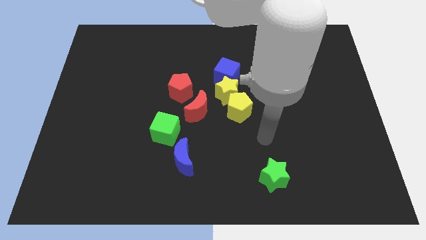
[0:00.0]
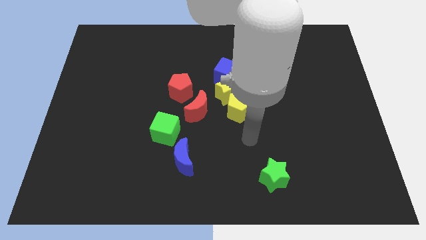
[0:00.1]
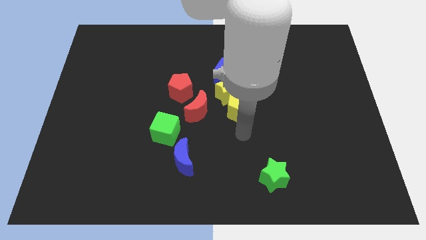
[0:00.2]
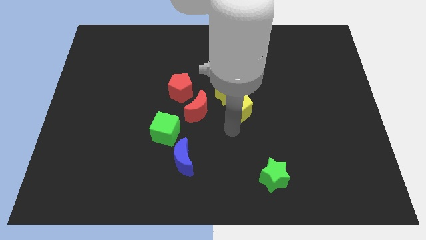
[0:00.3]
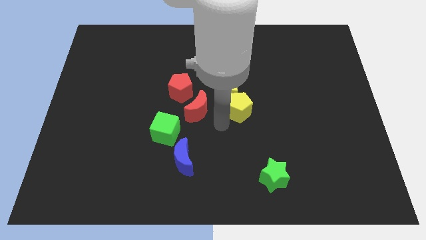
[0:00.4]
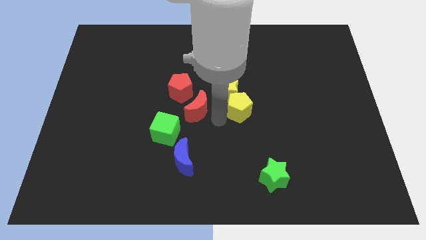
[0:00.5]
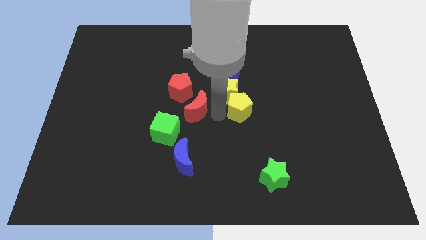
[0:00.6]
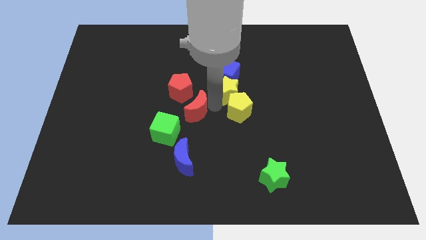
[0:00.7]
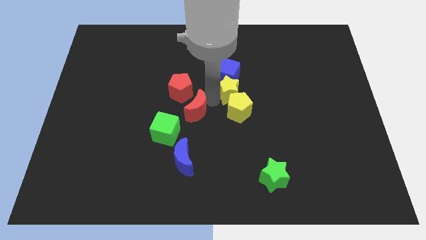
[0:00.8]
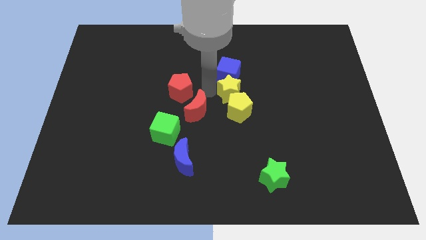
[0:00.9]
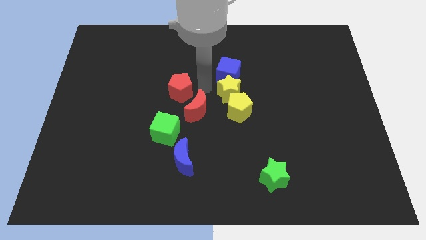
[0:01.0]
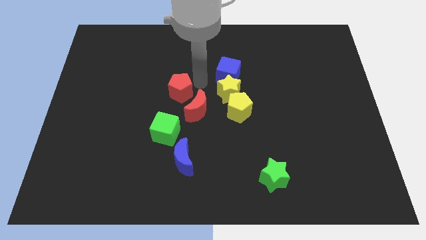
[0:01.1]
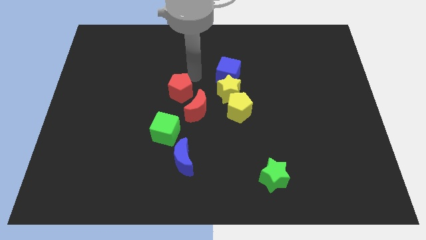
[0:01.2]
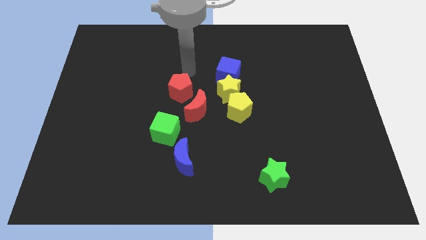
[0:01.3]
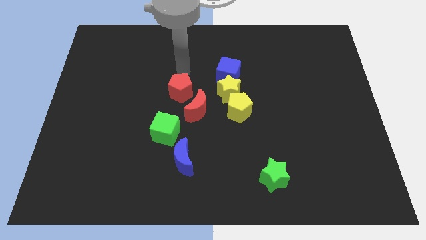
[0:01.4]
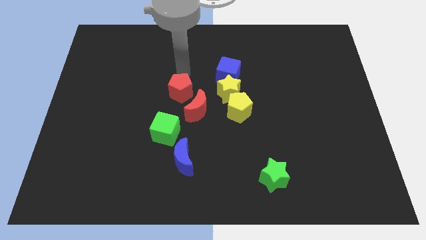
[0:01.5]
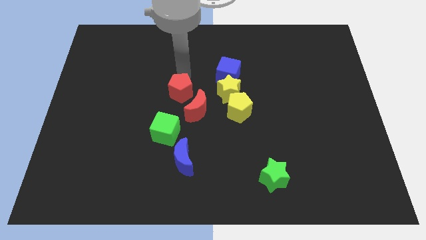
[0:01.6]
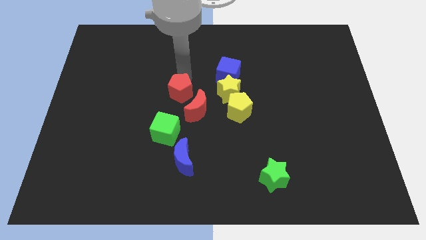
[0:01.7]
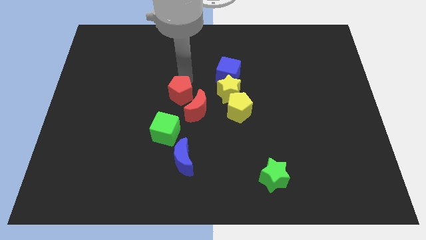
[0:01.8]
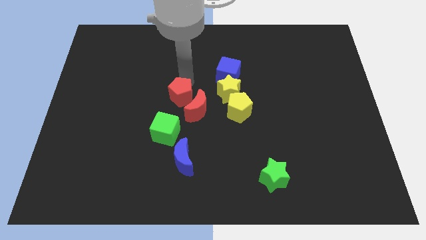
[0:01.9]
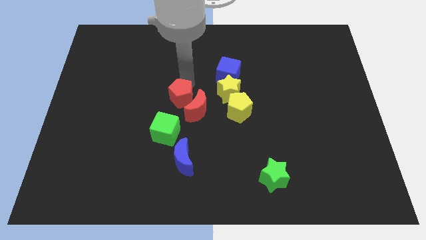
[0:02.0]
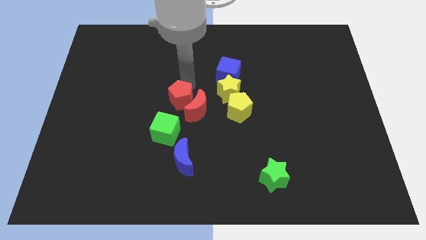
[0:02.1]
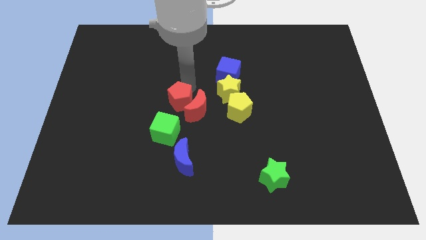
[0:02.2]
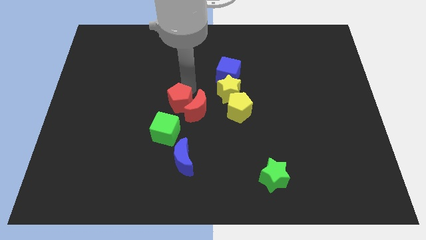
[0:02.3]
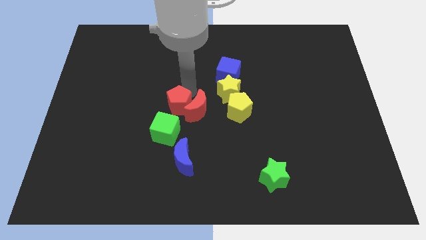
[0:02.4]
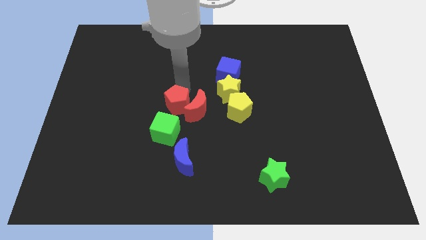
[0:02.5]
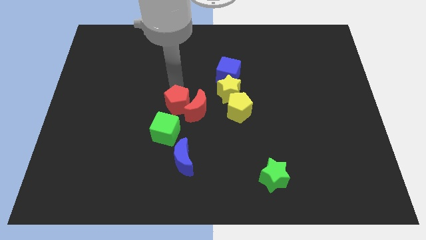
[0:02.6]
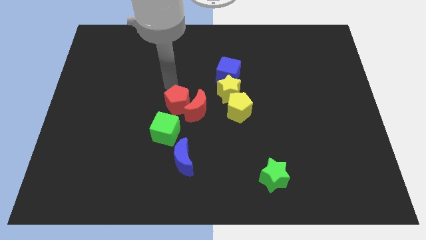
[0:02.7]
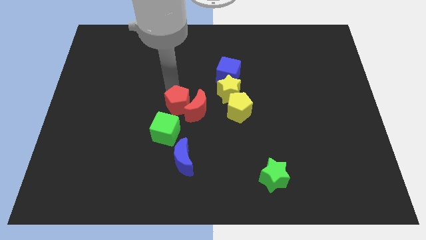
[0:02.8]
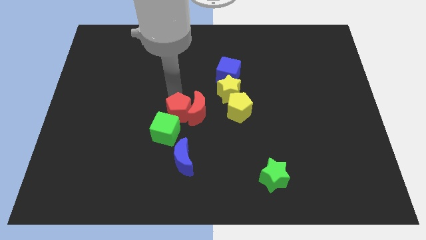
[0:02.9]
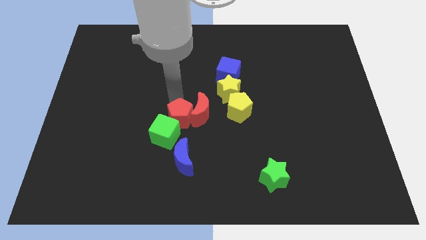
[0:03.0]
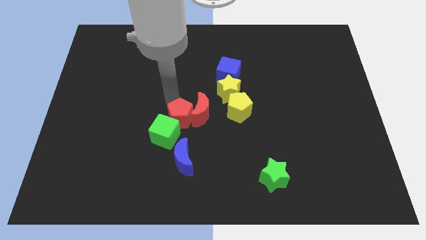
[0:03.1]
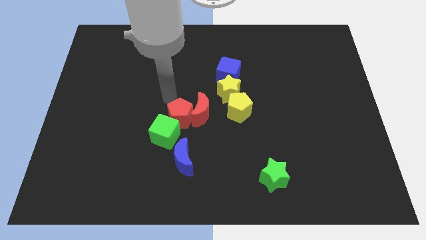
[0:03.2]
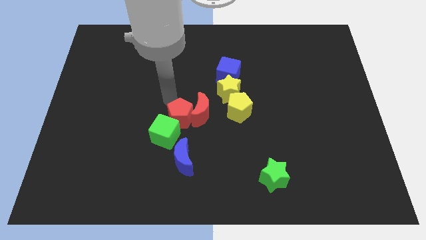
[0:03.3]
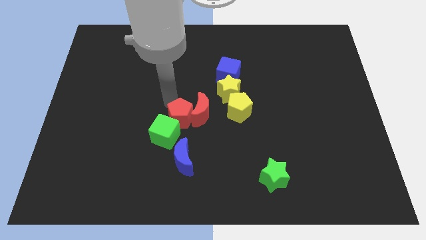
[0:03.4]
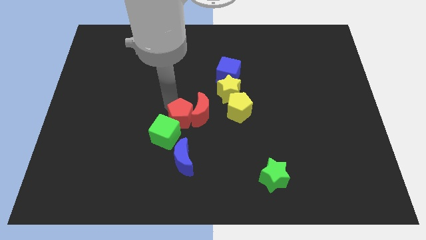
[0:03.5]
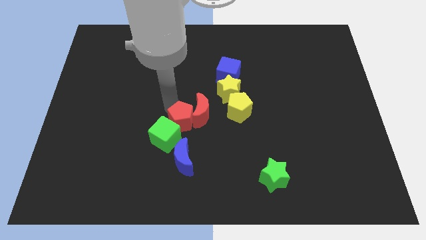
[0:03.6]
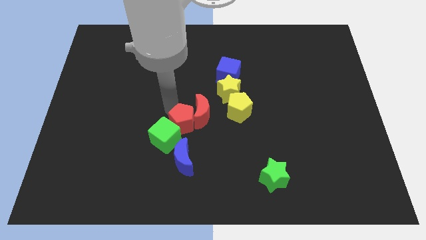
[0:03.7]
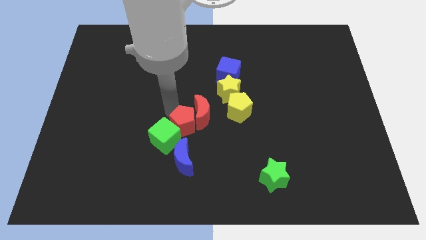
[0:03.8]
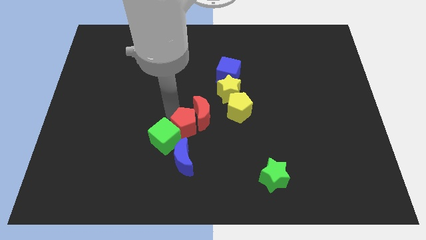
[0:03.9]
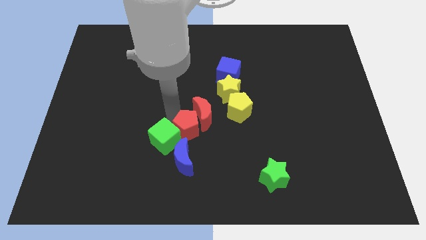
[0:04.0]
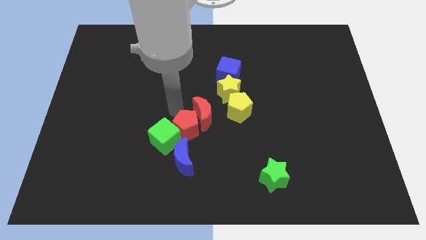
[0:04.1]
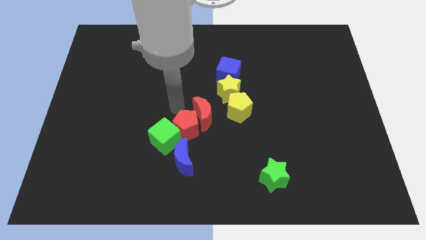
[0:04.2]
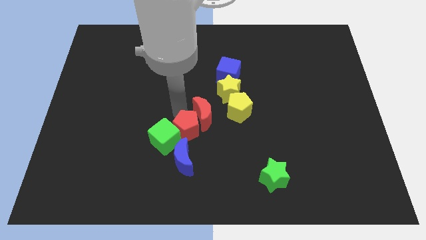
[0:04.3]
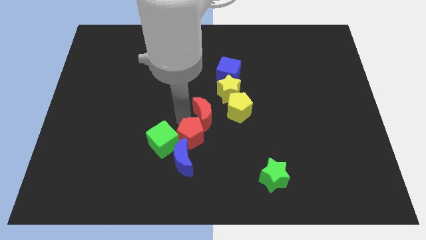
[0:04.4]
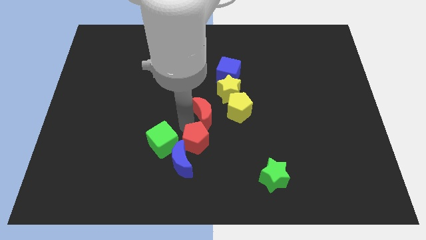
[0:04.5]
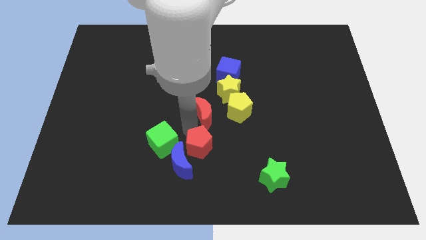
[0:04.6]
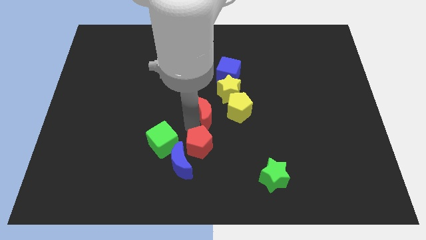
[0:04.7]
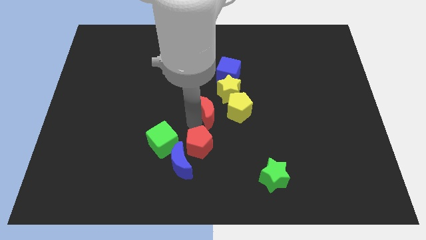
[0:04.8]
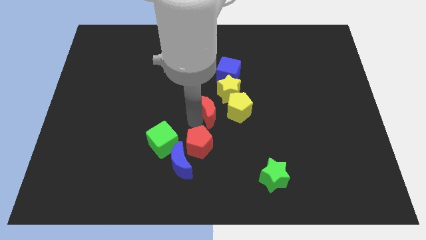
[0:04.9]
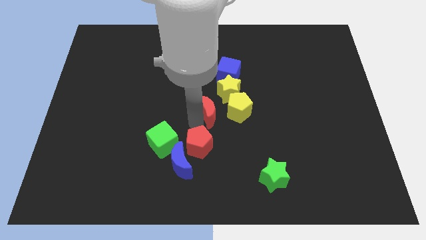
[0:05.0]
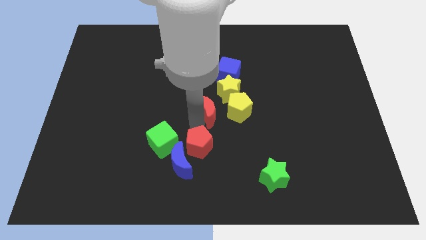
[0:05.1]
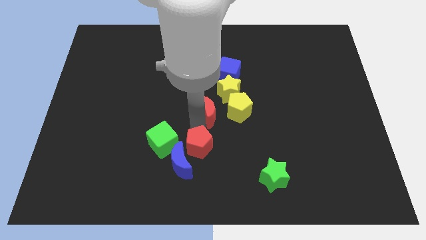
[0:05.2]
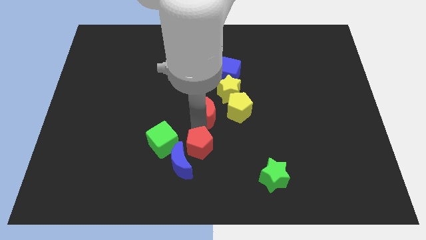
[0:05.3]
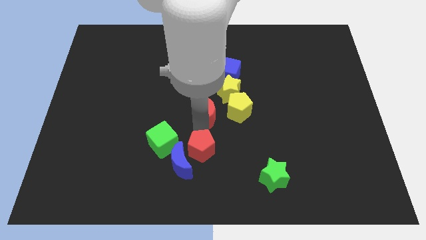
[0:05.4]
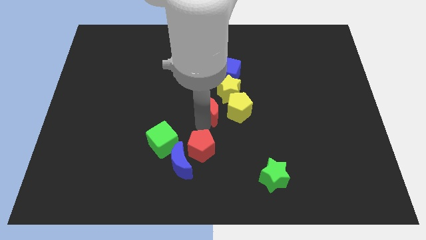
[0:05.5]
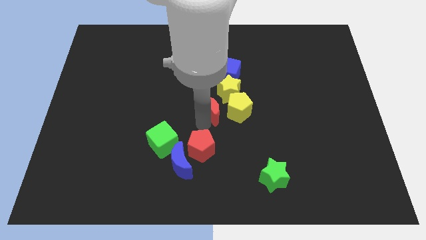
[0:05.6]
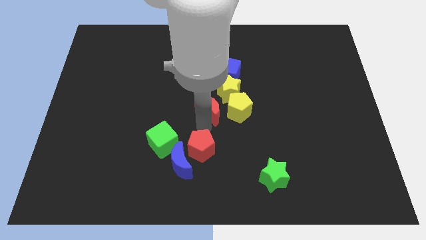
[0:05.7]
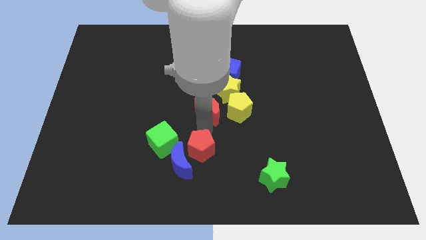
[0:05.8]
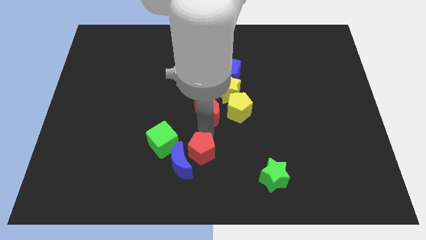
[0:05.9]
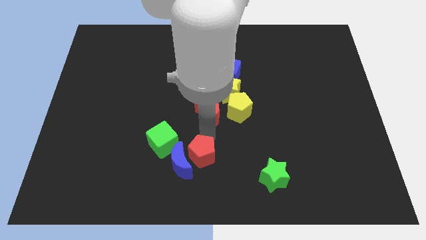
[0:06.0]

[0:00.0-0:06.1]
slide the red pentagon to the bottom side

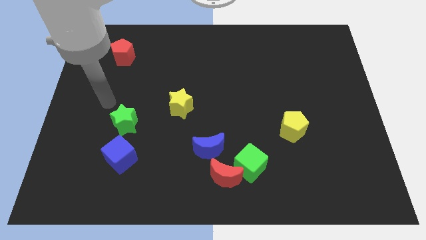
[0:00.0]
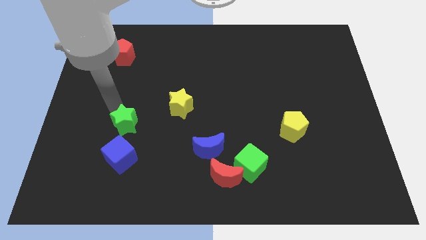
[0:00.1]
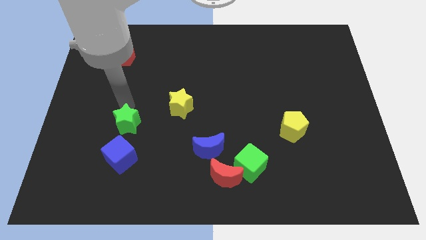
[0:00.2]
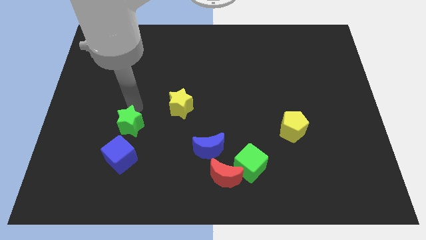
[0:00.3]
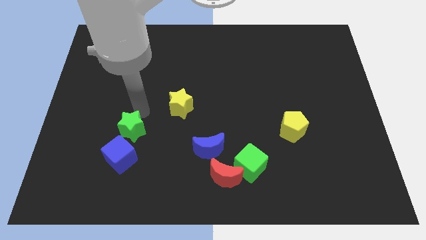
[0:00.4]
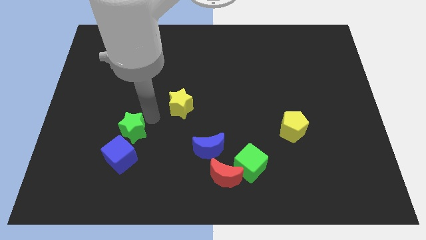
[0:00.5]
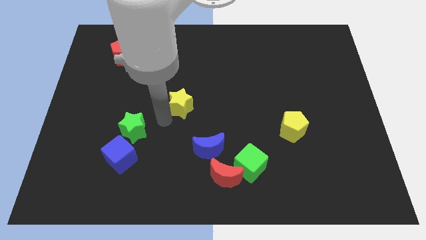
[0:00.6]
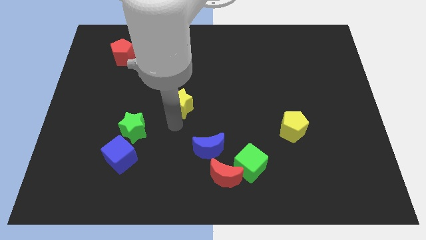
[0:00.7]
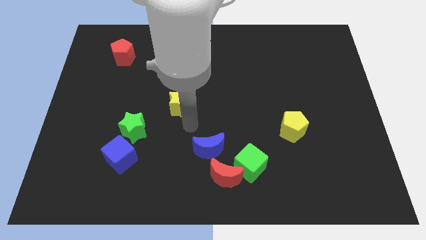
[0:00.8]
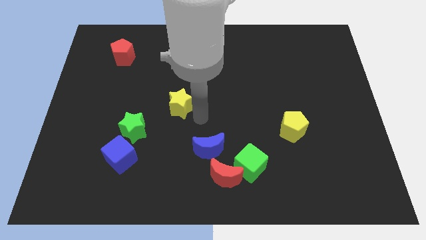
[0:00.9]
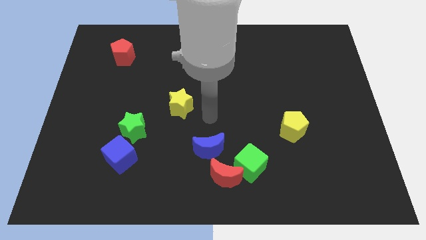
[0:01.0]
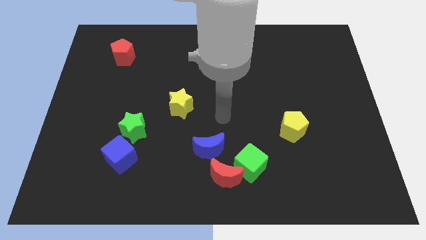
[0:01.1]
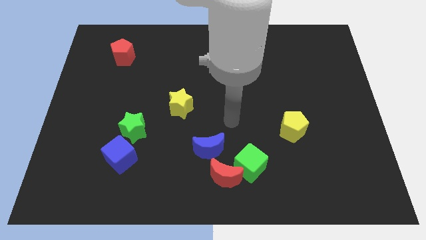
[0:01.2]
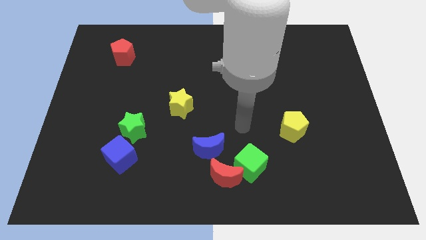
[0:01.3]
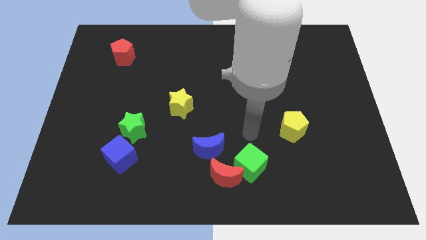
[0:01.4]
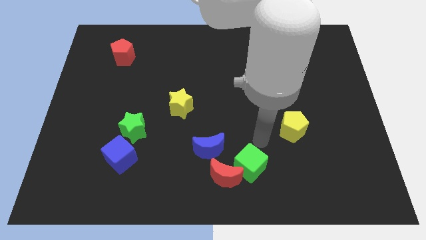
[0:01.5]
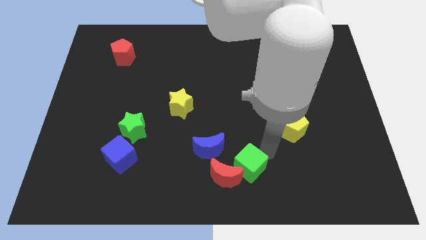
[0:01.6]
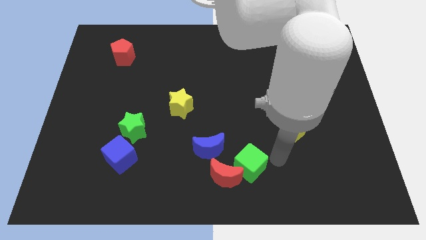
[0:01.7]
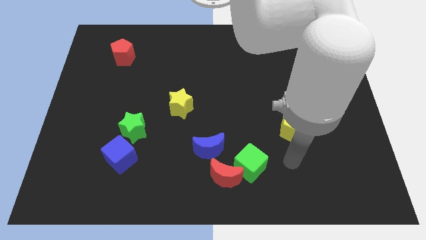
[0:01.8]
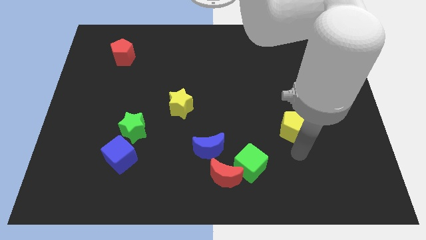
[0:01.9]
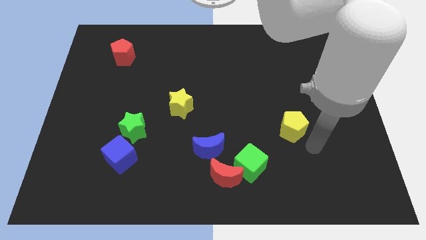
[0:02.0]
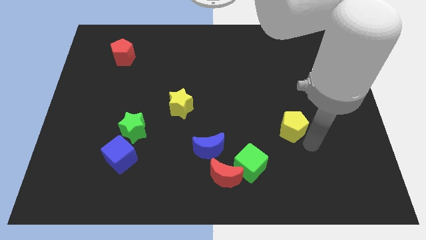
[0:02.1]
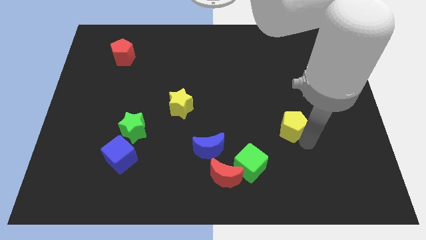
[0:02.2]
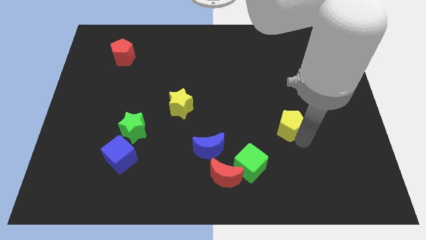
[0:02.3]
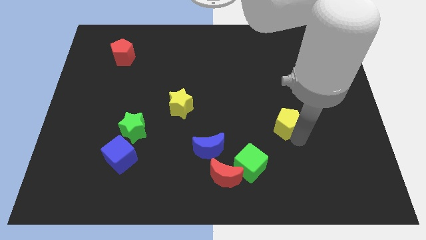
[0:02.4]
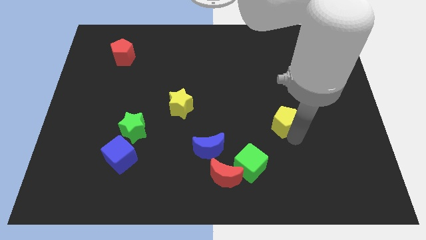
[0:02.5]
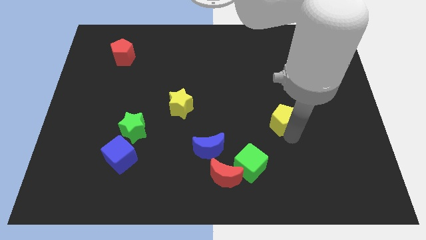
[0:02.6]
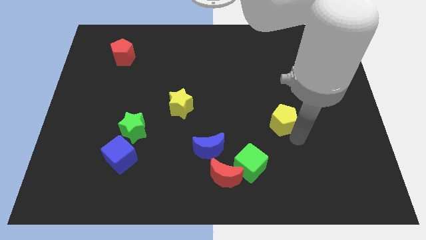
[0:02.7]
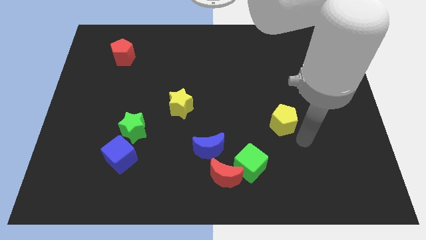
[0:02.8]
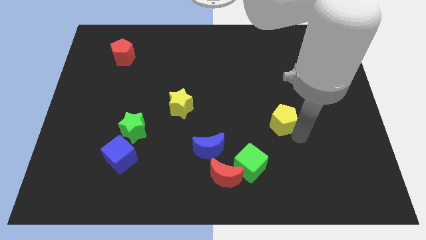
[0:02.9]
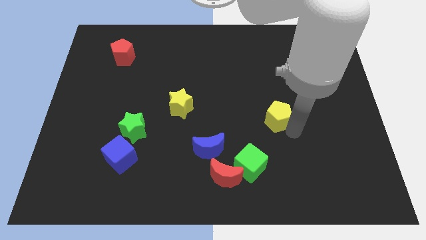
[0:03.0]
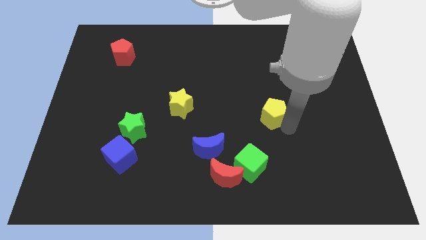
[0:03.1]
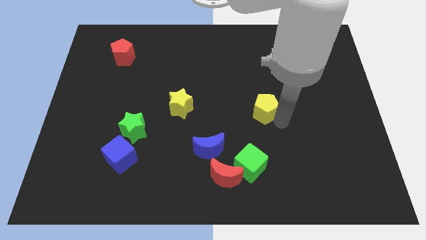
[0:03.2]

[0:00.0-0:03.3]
slide the yellow pentagon to the center
